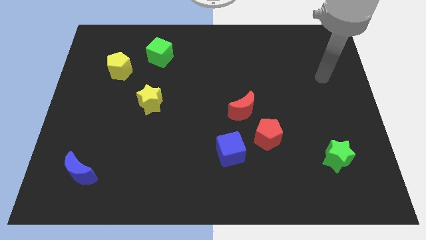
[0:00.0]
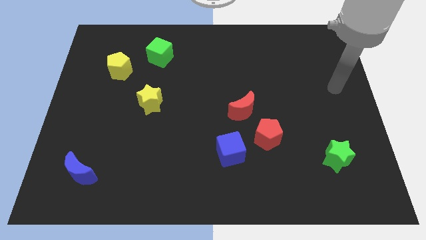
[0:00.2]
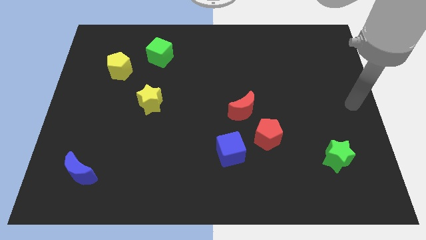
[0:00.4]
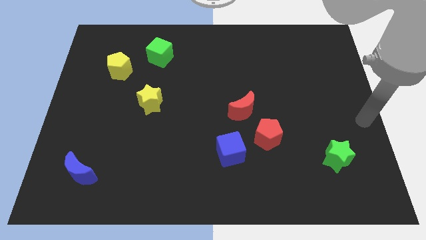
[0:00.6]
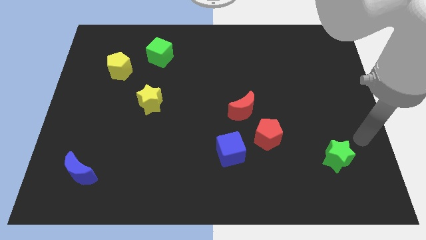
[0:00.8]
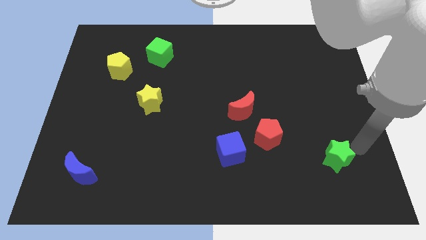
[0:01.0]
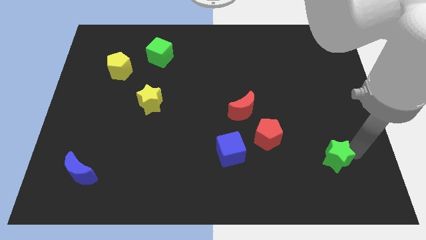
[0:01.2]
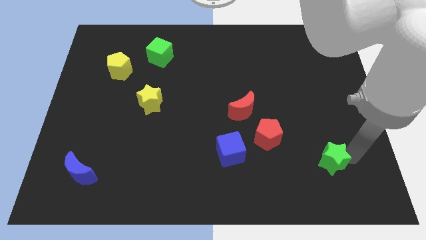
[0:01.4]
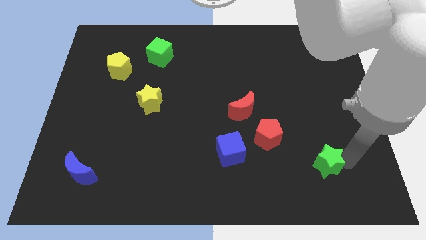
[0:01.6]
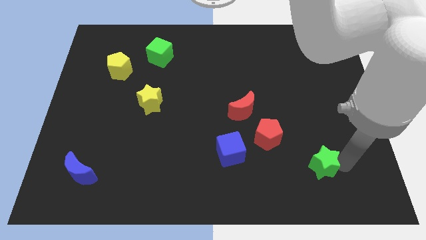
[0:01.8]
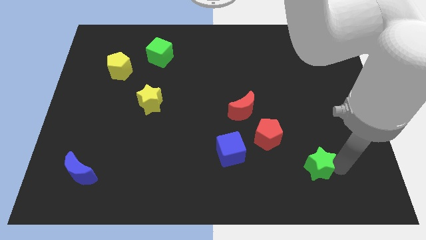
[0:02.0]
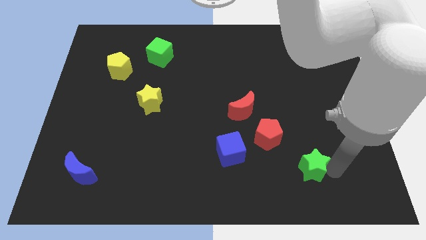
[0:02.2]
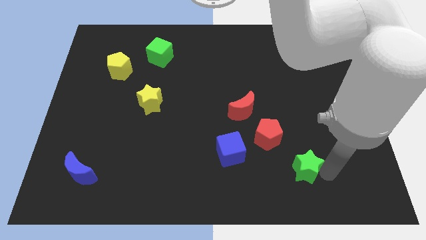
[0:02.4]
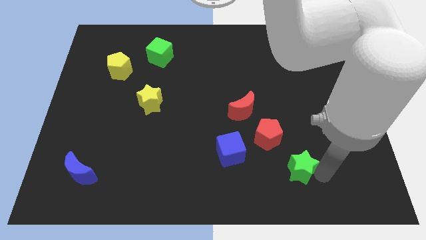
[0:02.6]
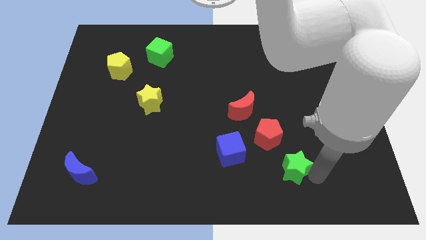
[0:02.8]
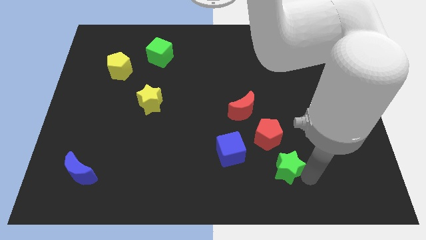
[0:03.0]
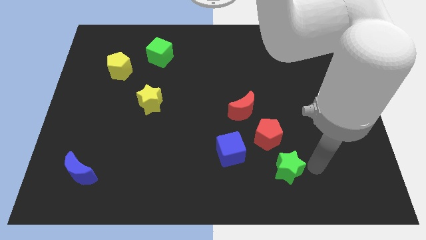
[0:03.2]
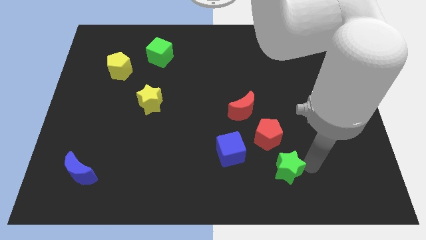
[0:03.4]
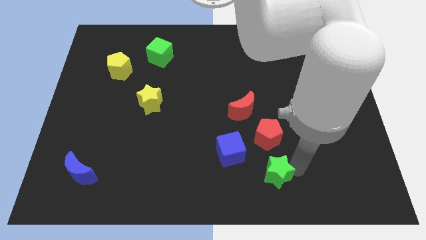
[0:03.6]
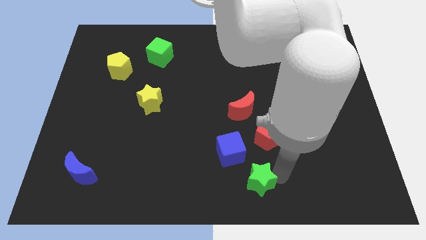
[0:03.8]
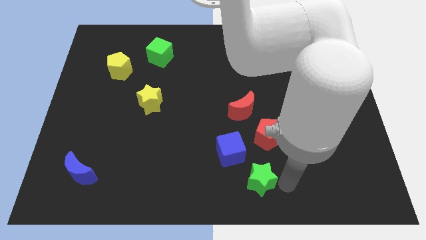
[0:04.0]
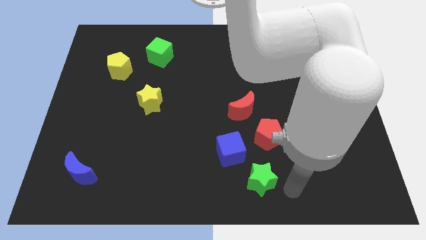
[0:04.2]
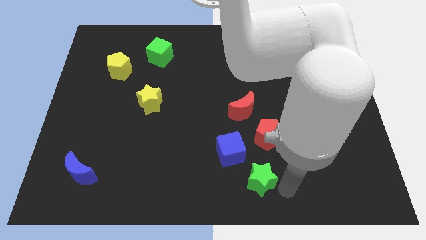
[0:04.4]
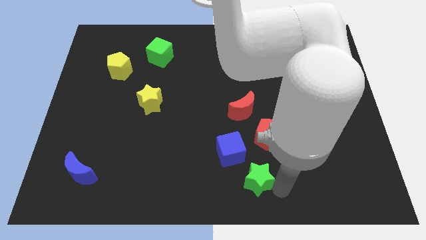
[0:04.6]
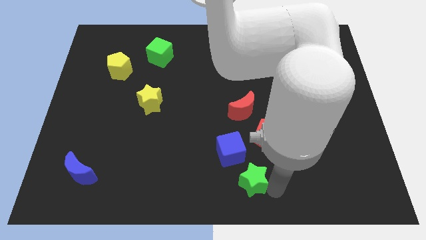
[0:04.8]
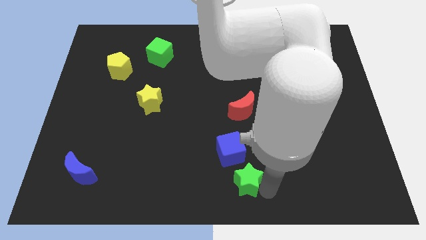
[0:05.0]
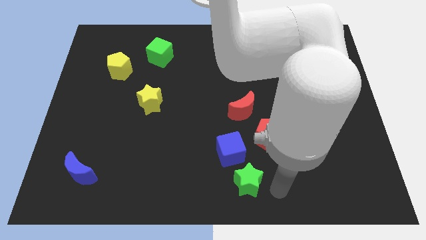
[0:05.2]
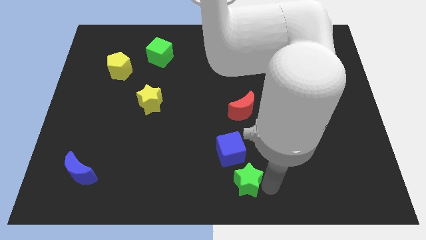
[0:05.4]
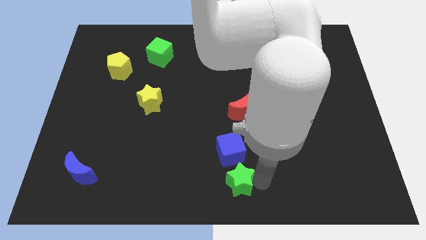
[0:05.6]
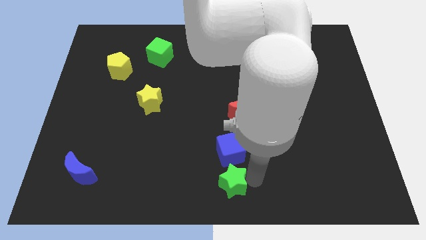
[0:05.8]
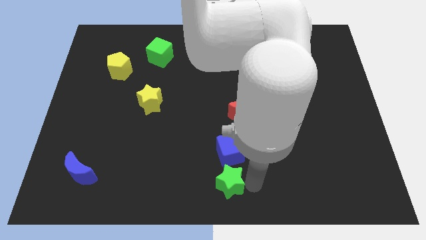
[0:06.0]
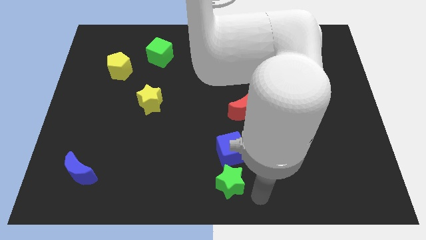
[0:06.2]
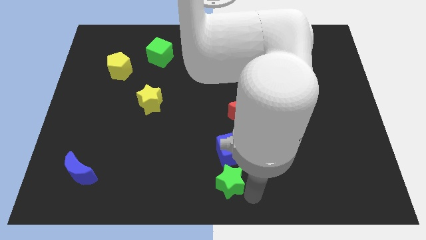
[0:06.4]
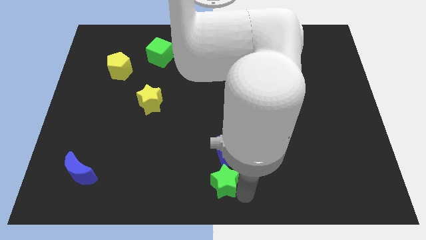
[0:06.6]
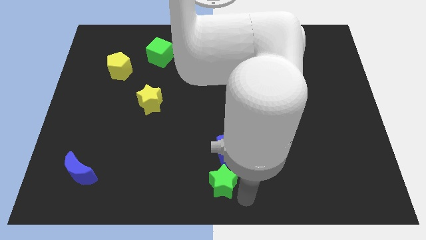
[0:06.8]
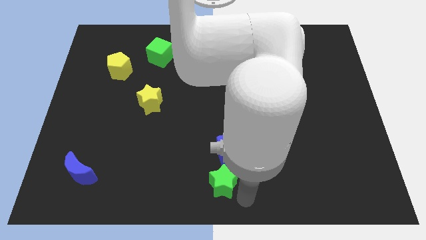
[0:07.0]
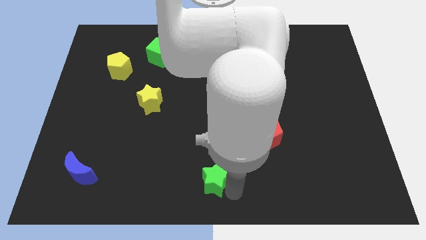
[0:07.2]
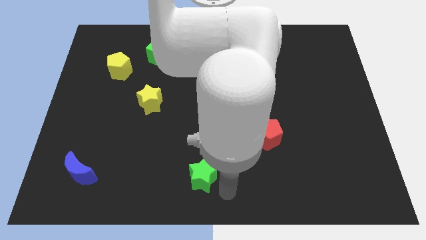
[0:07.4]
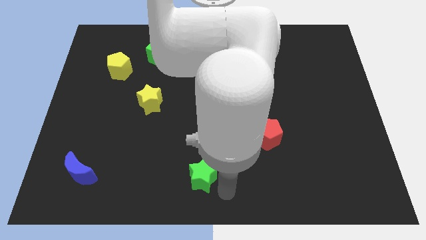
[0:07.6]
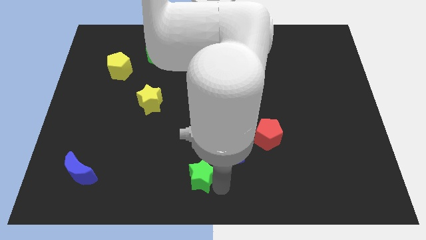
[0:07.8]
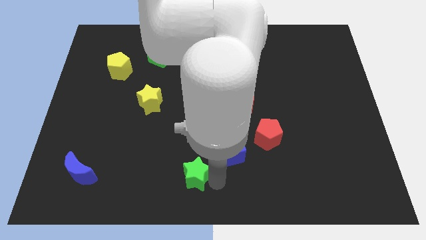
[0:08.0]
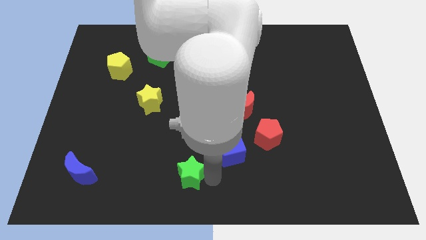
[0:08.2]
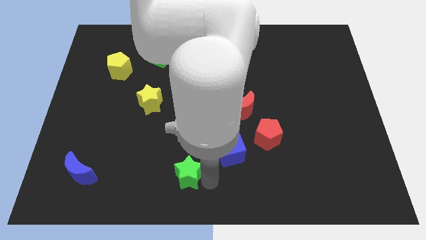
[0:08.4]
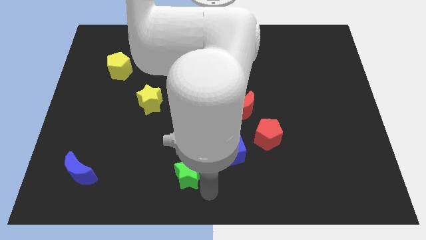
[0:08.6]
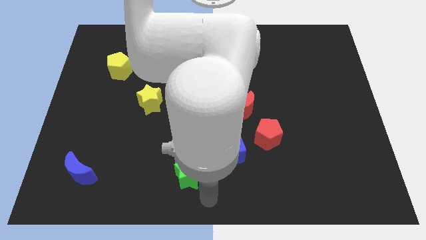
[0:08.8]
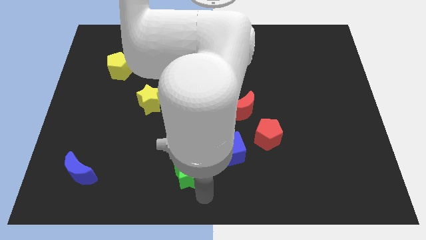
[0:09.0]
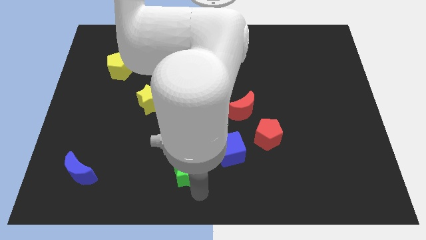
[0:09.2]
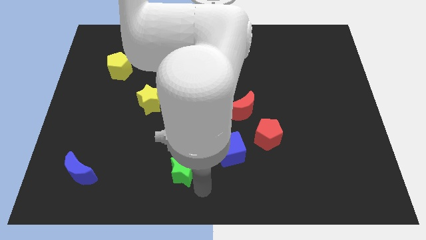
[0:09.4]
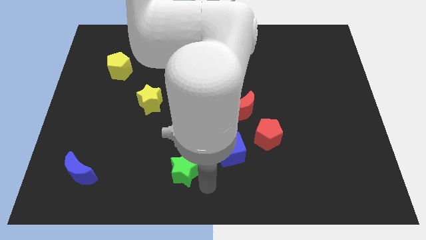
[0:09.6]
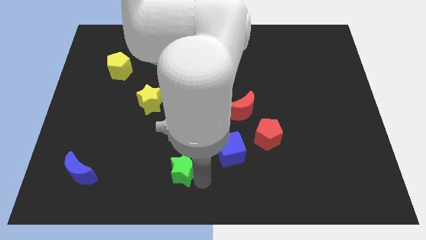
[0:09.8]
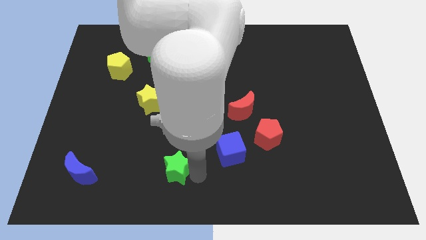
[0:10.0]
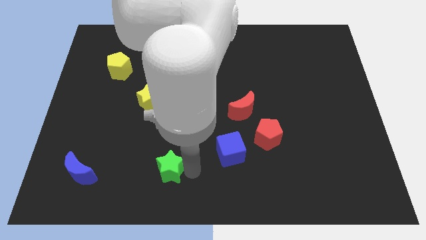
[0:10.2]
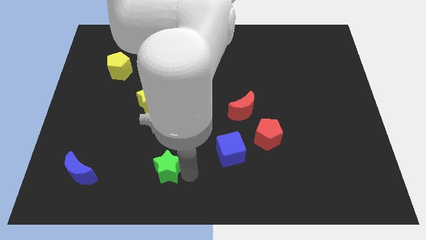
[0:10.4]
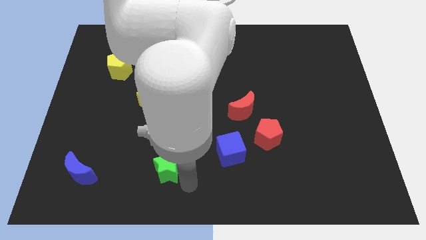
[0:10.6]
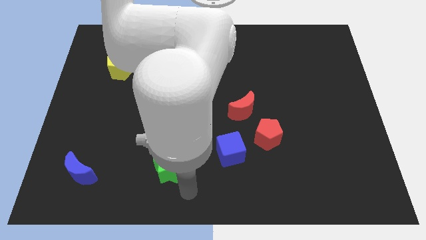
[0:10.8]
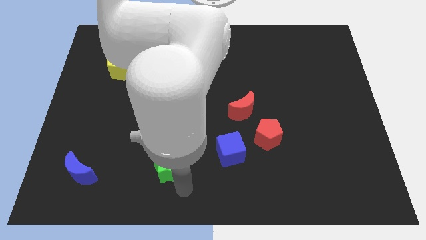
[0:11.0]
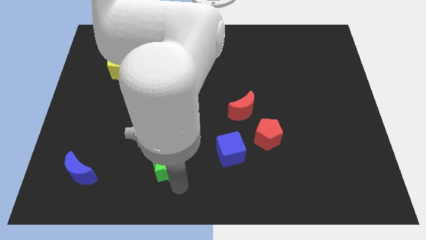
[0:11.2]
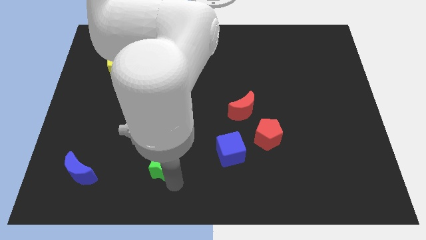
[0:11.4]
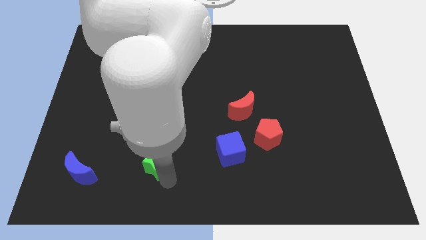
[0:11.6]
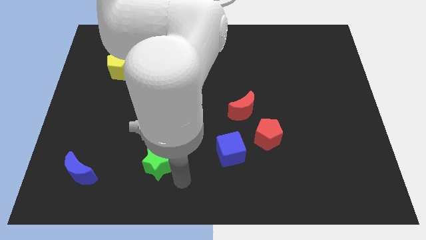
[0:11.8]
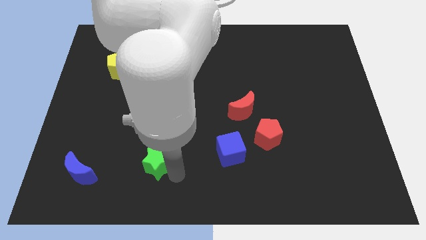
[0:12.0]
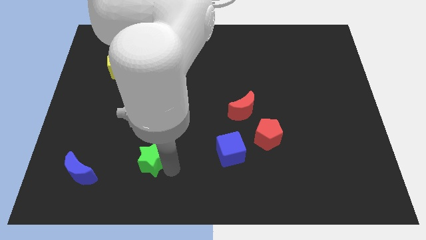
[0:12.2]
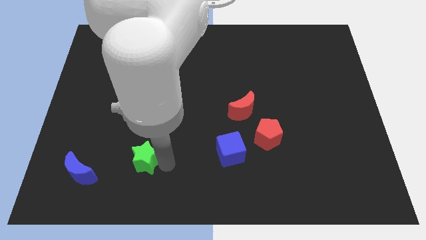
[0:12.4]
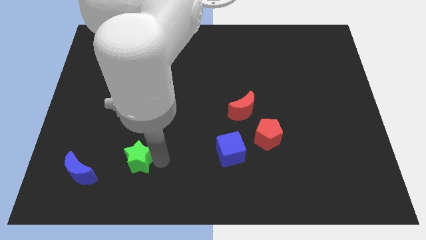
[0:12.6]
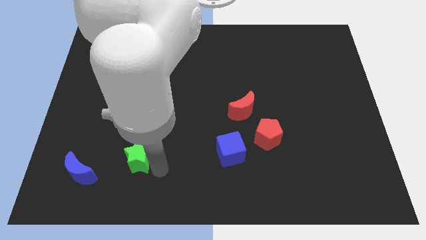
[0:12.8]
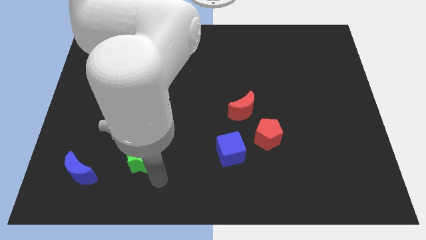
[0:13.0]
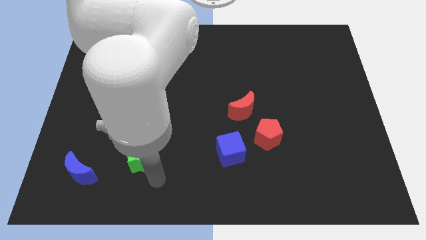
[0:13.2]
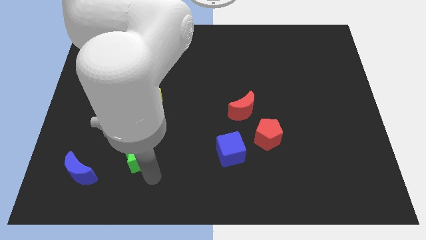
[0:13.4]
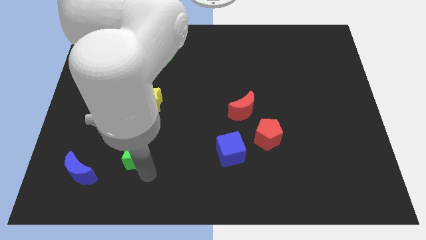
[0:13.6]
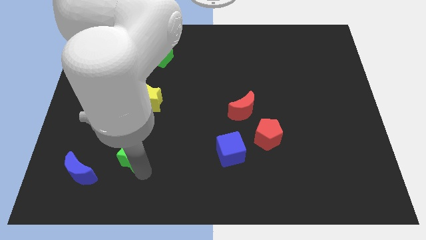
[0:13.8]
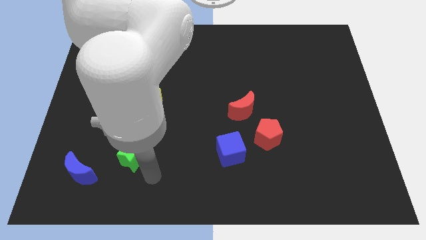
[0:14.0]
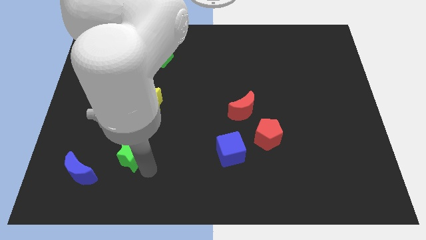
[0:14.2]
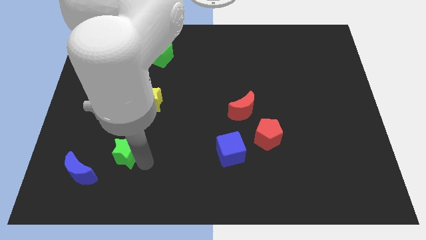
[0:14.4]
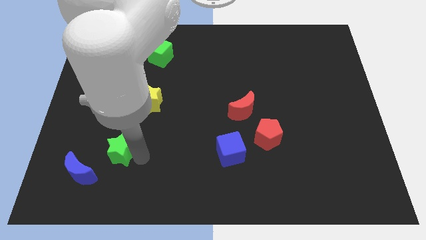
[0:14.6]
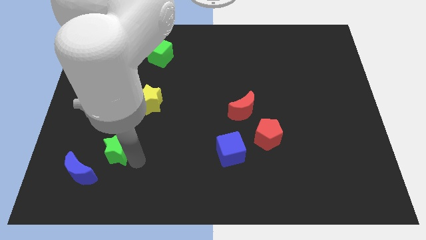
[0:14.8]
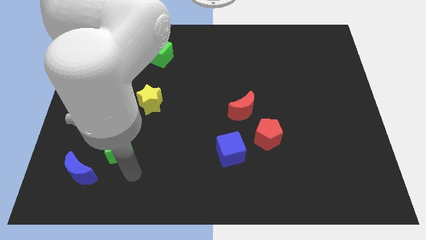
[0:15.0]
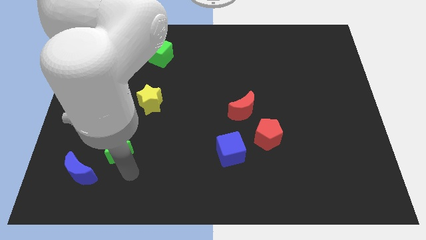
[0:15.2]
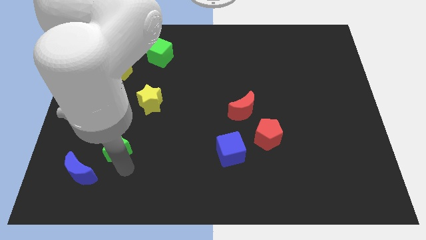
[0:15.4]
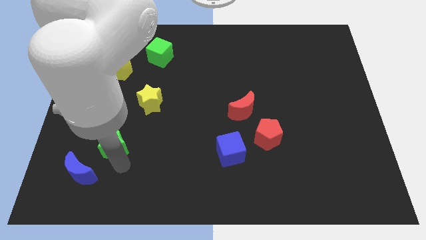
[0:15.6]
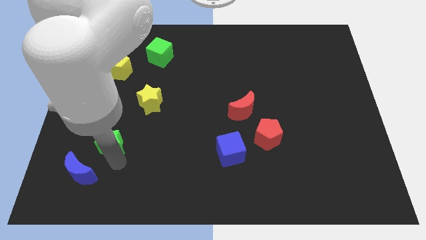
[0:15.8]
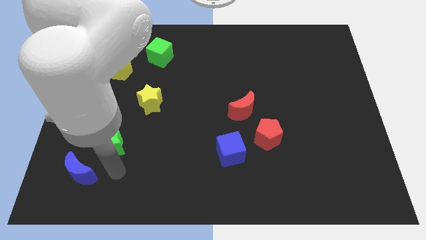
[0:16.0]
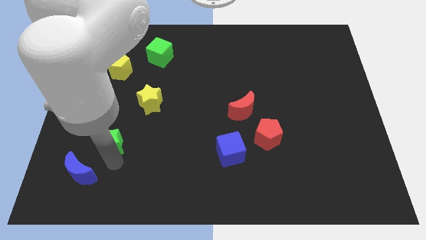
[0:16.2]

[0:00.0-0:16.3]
push the green star to the top of the blue moon
